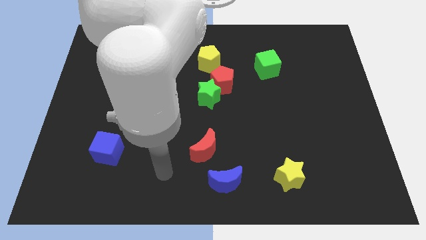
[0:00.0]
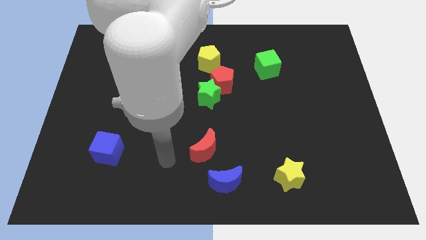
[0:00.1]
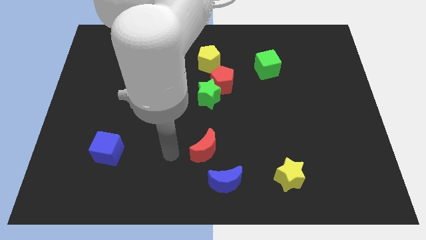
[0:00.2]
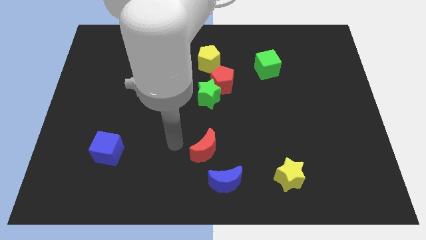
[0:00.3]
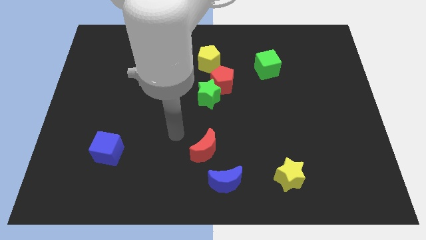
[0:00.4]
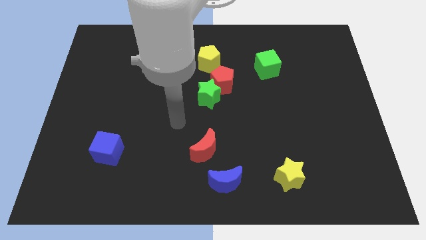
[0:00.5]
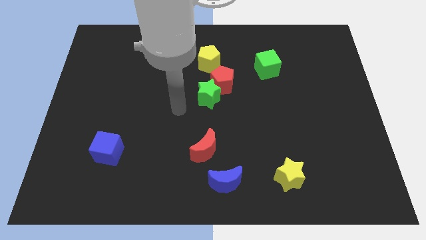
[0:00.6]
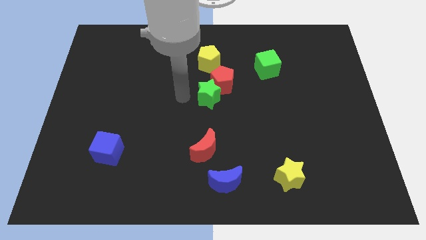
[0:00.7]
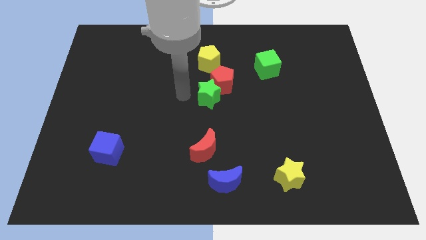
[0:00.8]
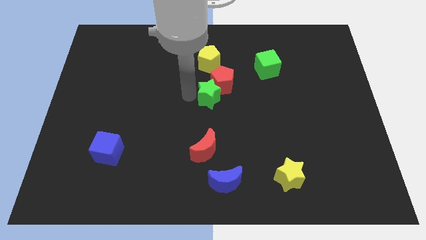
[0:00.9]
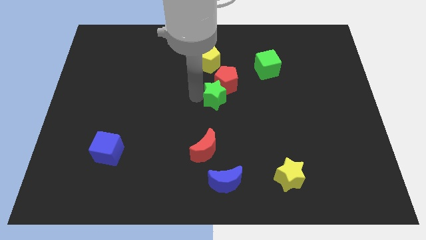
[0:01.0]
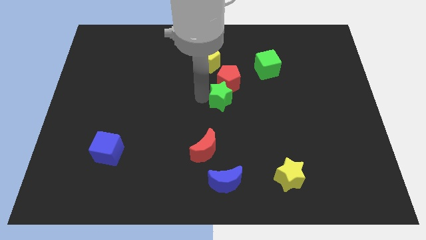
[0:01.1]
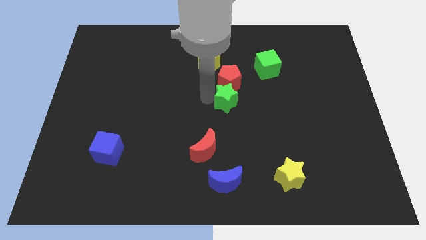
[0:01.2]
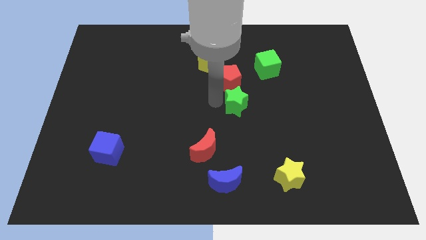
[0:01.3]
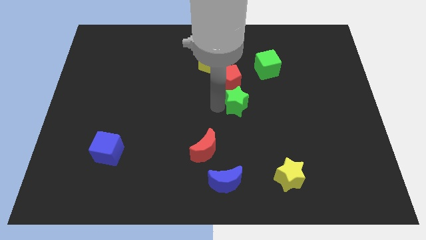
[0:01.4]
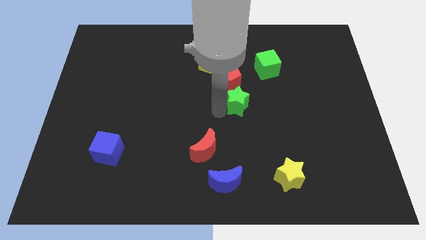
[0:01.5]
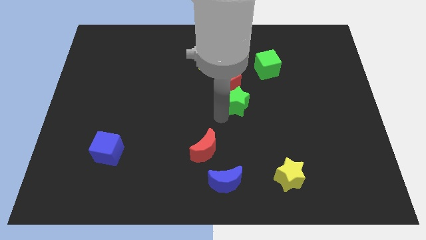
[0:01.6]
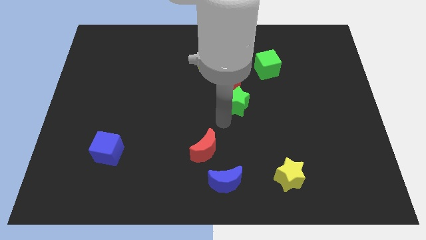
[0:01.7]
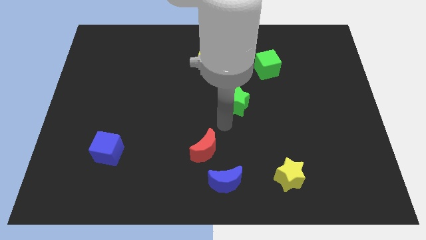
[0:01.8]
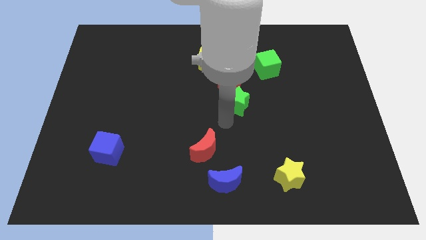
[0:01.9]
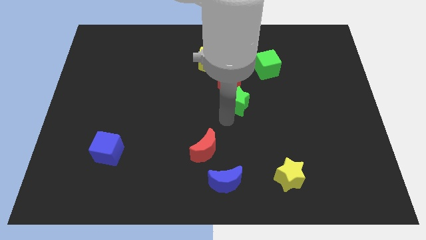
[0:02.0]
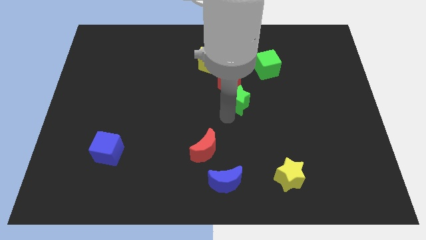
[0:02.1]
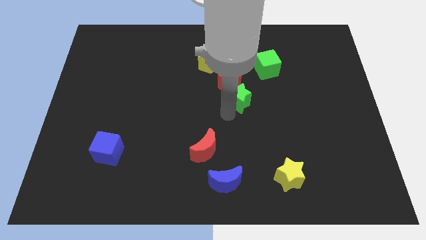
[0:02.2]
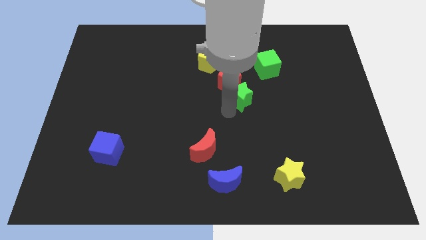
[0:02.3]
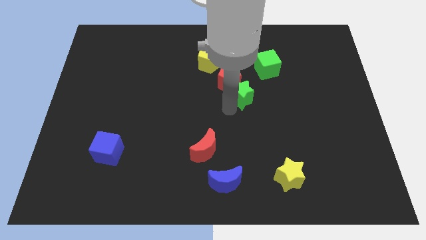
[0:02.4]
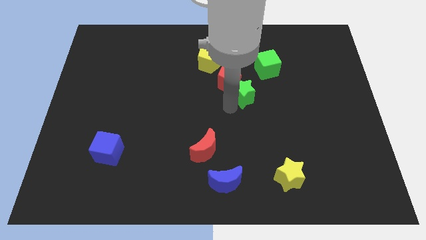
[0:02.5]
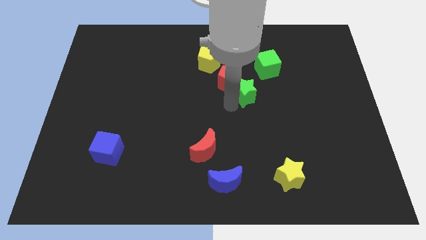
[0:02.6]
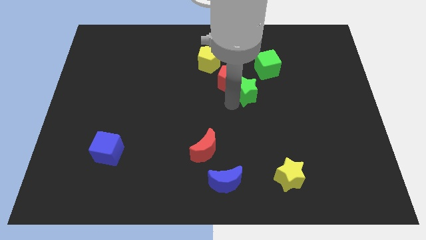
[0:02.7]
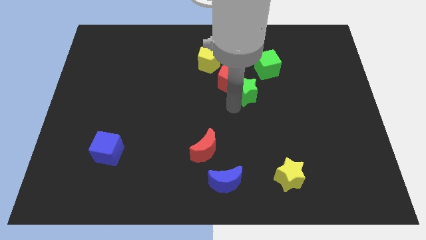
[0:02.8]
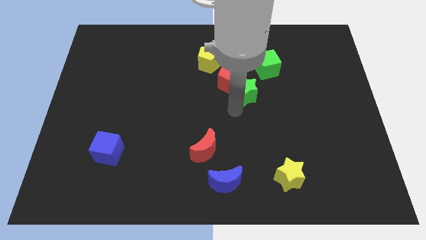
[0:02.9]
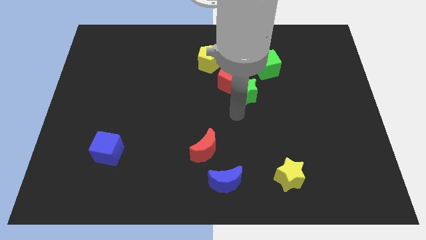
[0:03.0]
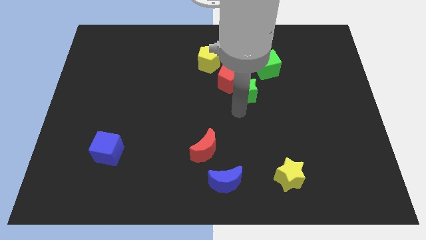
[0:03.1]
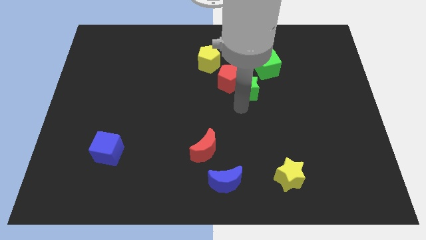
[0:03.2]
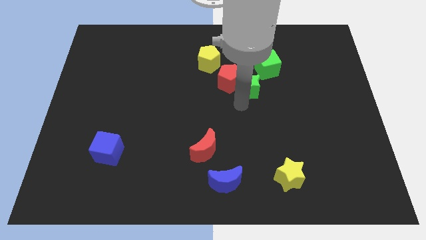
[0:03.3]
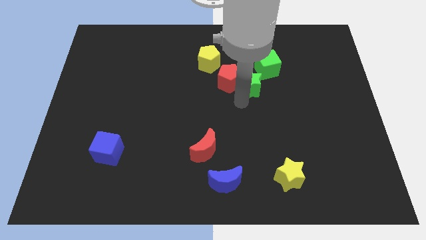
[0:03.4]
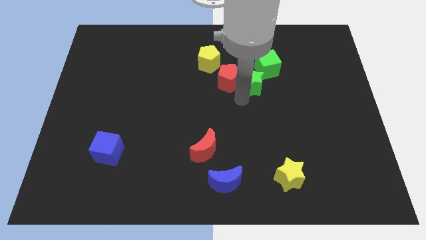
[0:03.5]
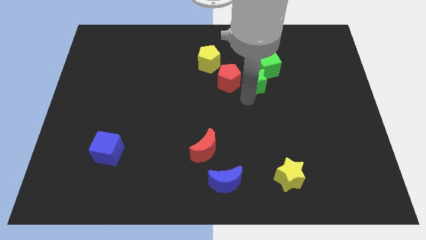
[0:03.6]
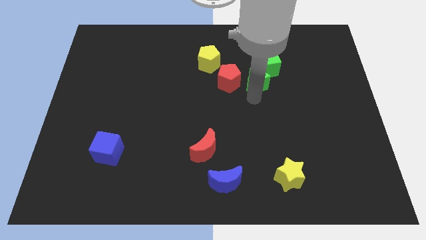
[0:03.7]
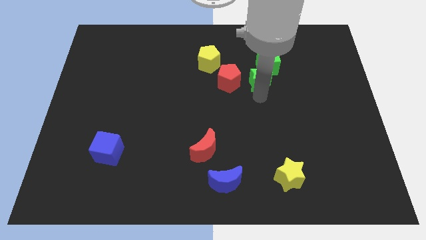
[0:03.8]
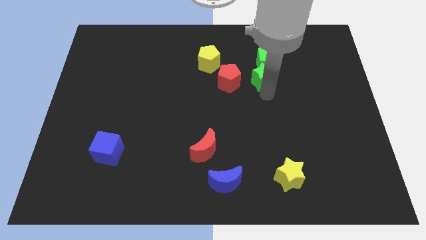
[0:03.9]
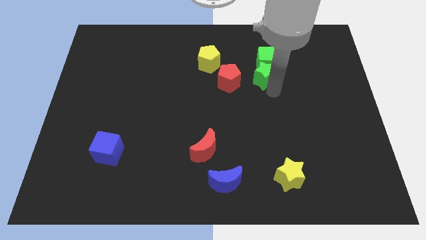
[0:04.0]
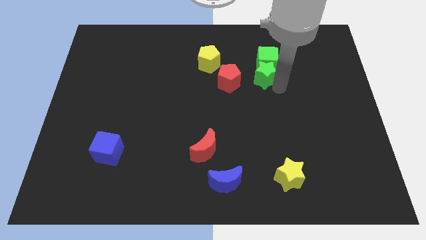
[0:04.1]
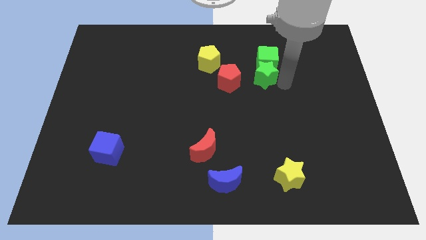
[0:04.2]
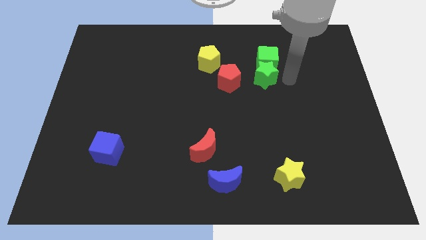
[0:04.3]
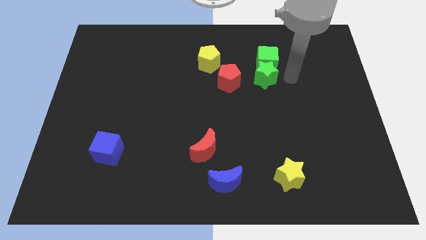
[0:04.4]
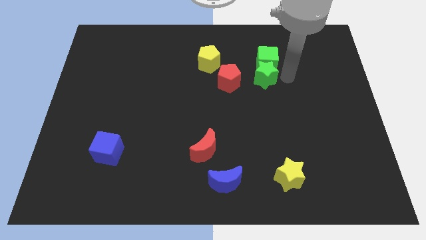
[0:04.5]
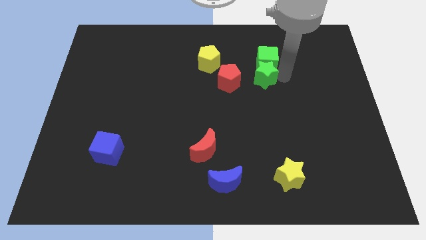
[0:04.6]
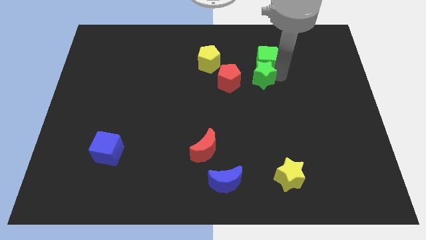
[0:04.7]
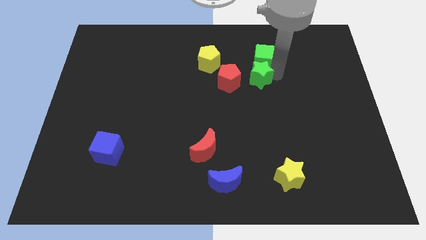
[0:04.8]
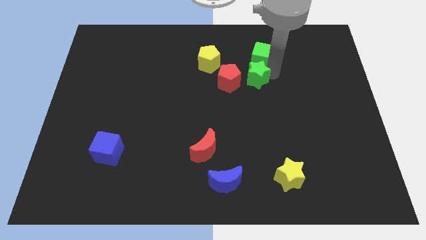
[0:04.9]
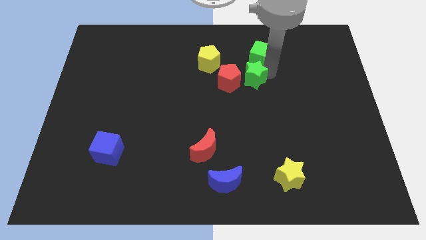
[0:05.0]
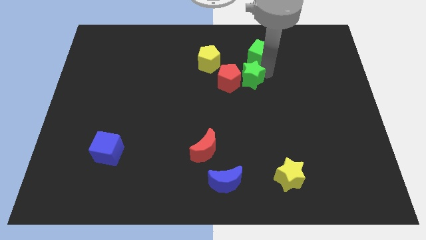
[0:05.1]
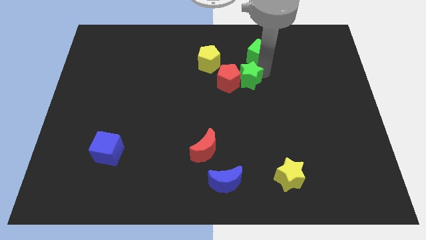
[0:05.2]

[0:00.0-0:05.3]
push the green star diagonally down and to the right of the yellow pentagon

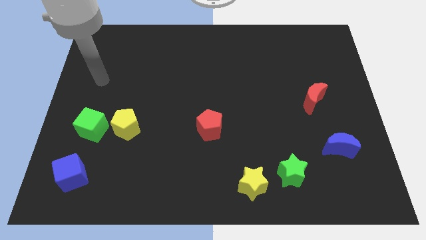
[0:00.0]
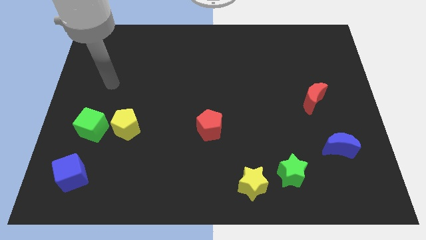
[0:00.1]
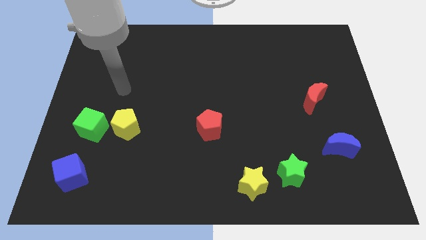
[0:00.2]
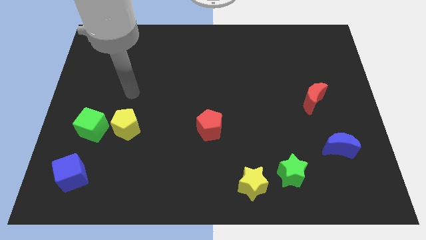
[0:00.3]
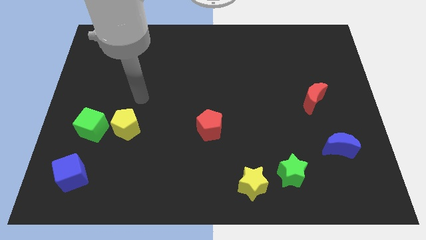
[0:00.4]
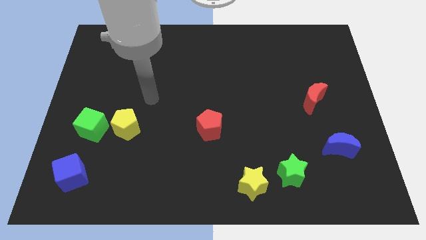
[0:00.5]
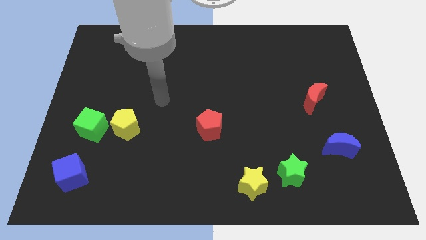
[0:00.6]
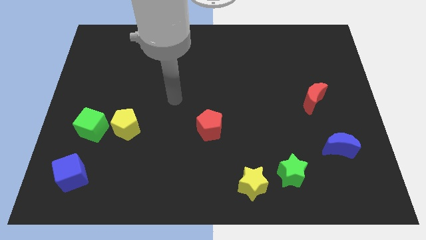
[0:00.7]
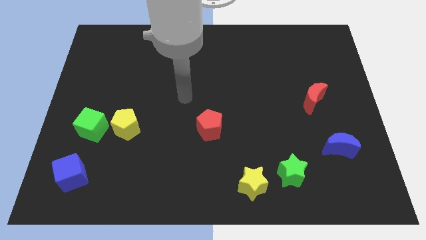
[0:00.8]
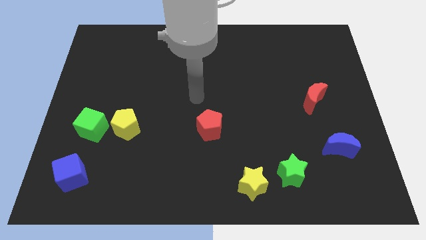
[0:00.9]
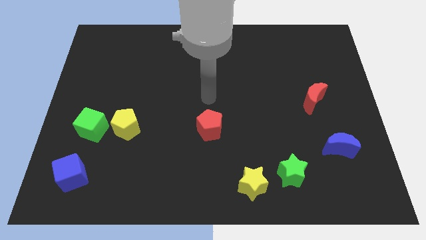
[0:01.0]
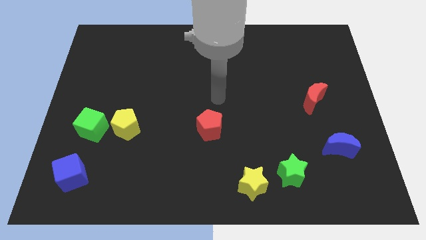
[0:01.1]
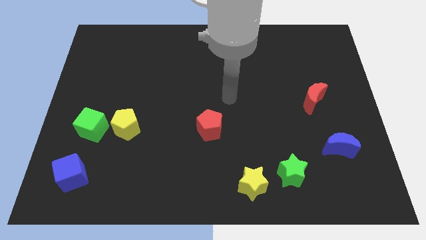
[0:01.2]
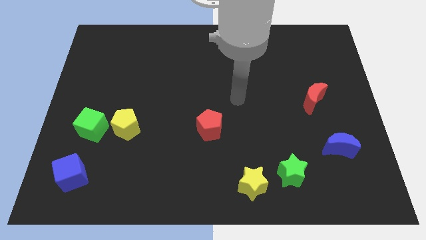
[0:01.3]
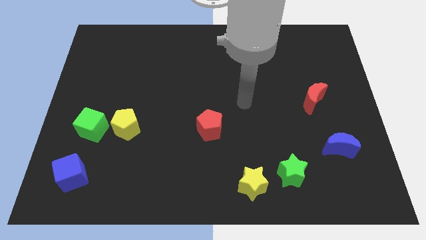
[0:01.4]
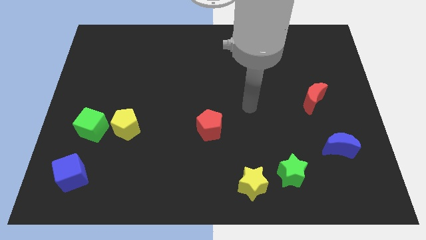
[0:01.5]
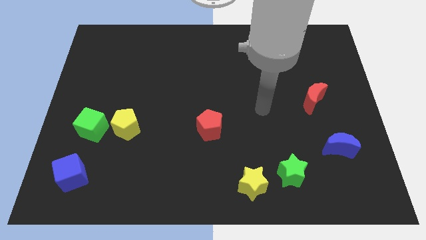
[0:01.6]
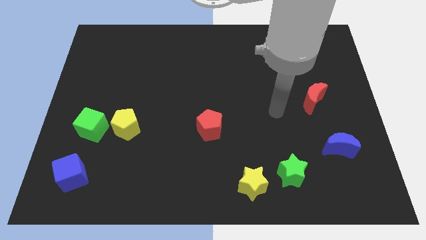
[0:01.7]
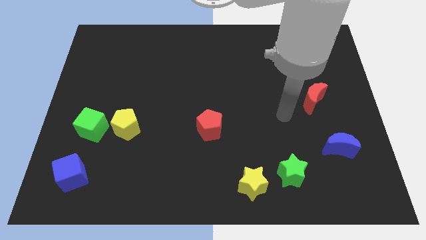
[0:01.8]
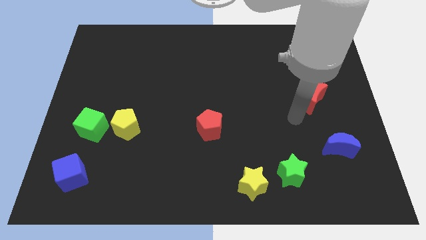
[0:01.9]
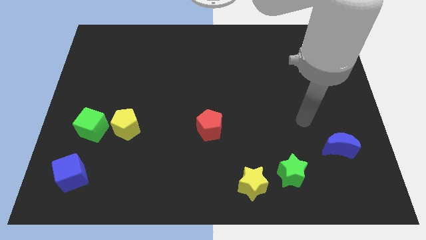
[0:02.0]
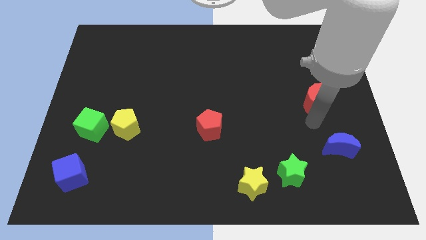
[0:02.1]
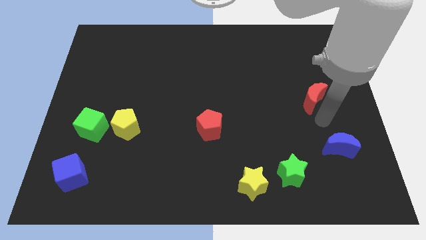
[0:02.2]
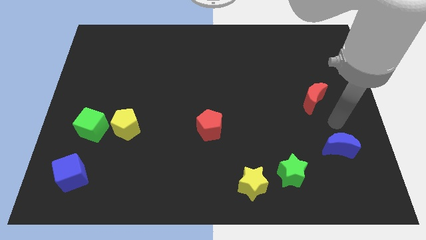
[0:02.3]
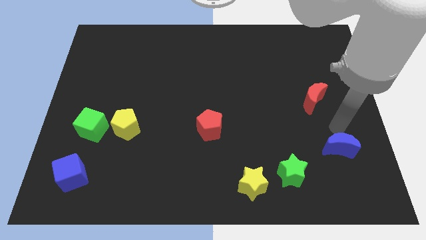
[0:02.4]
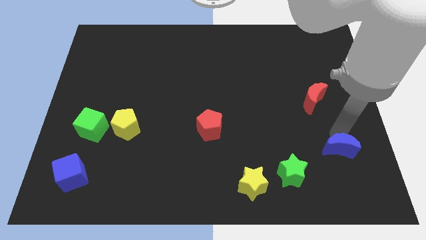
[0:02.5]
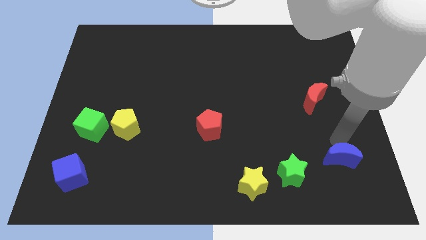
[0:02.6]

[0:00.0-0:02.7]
push the blue moon to the right of the green star
